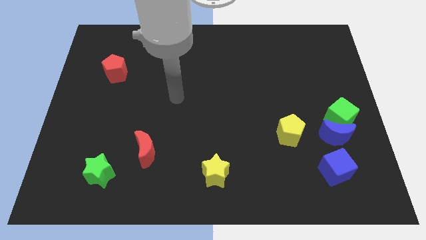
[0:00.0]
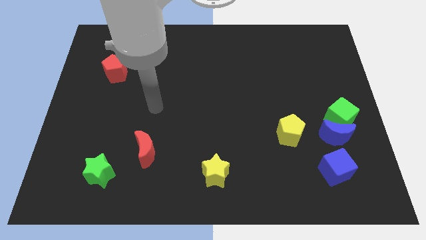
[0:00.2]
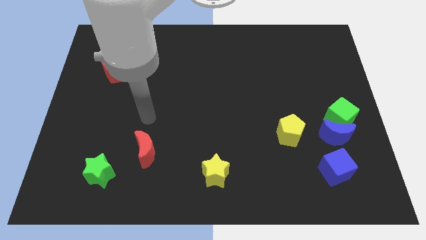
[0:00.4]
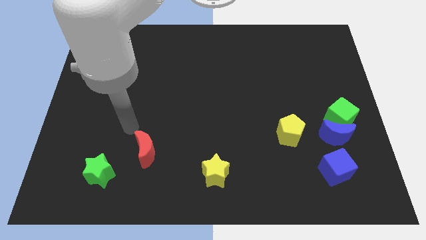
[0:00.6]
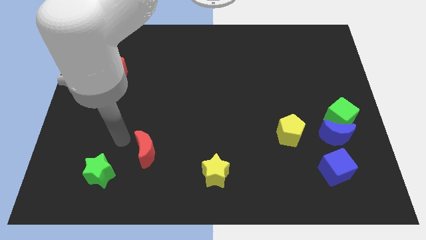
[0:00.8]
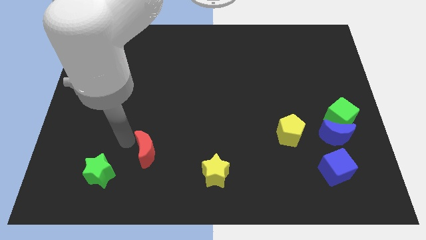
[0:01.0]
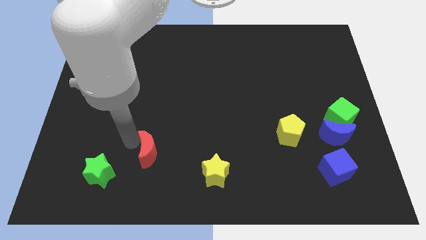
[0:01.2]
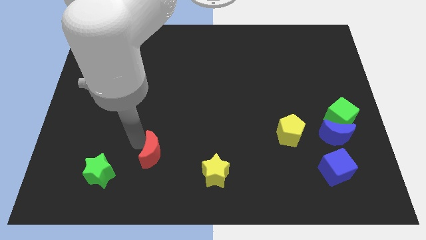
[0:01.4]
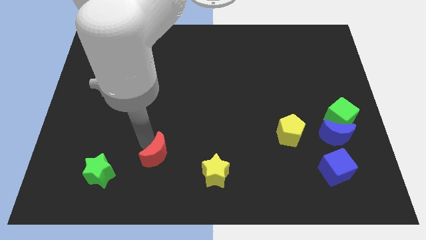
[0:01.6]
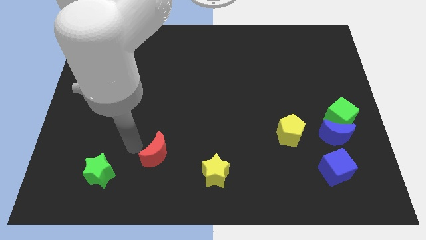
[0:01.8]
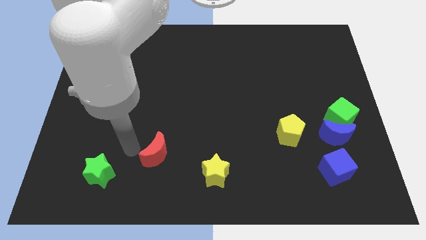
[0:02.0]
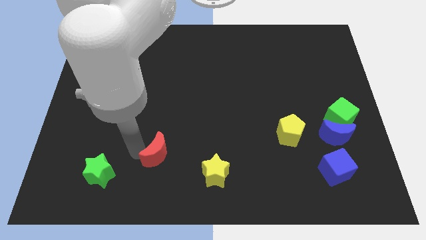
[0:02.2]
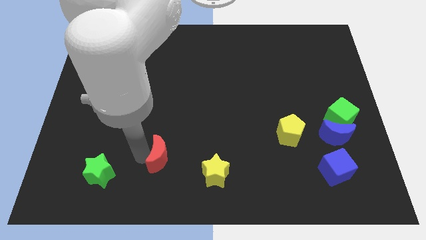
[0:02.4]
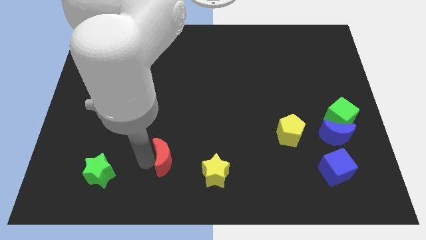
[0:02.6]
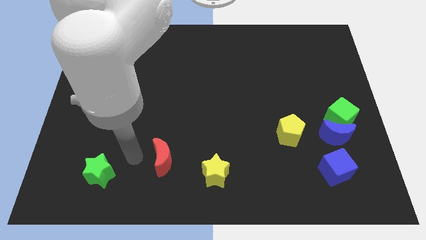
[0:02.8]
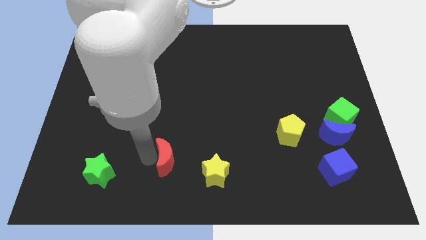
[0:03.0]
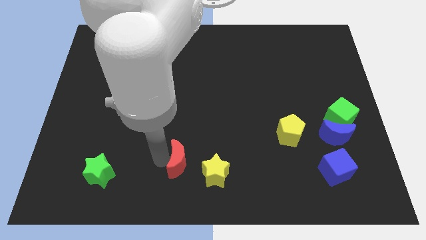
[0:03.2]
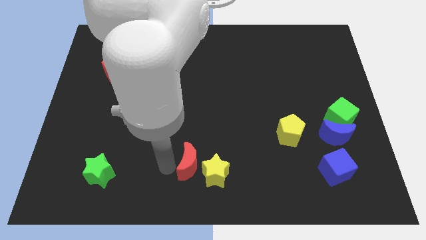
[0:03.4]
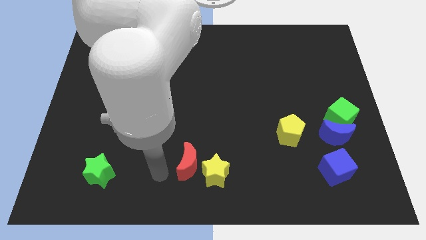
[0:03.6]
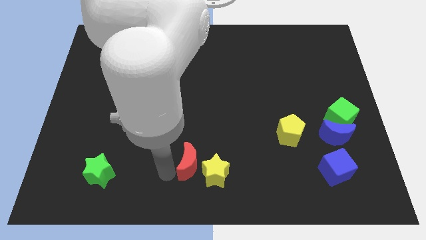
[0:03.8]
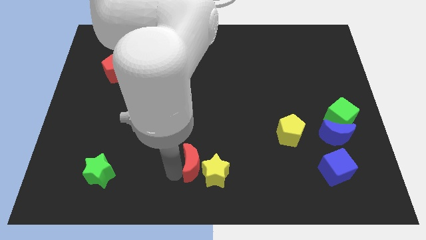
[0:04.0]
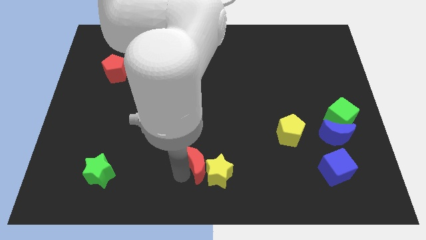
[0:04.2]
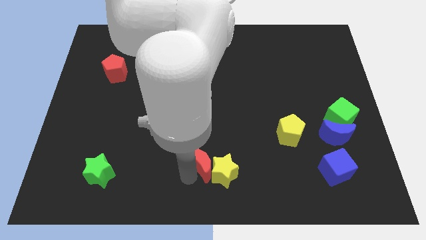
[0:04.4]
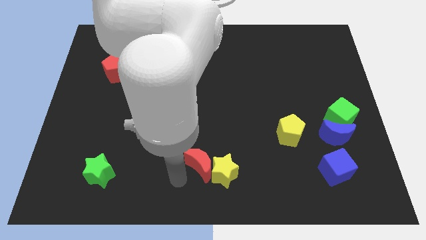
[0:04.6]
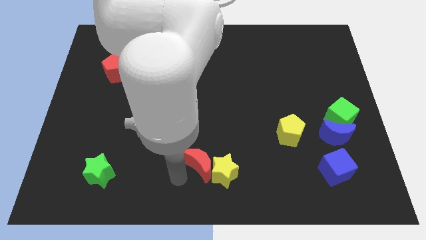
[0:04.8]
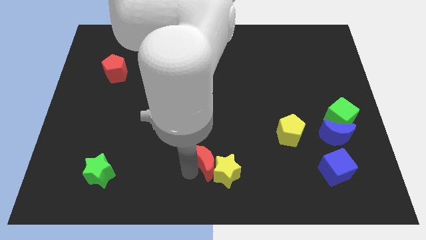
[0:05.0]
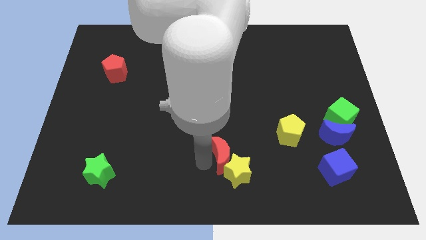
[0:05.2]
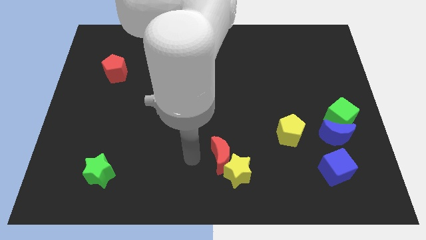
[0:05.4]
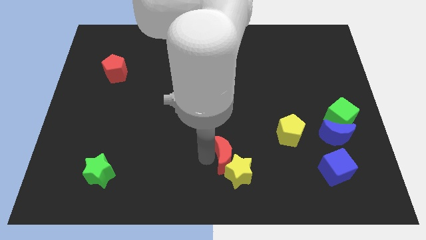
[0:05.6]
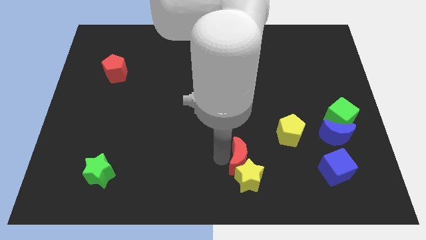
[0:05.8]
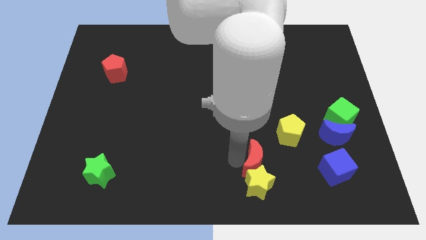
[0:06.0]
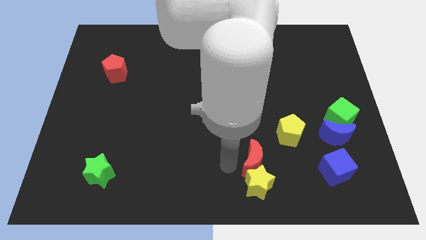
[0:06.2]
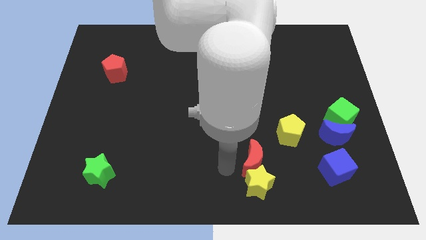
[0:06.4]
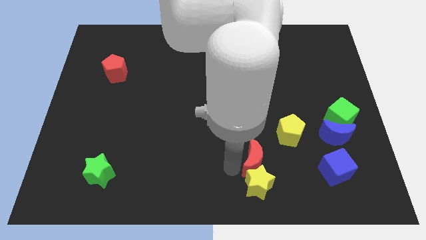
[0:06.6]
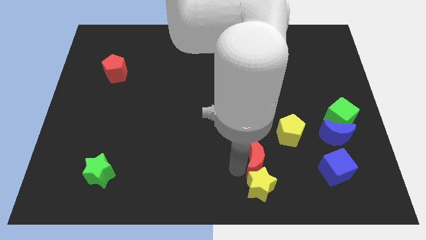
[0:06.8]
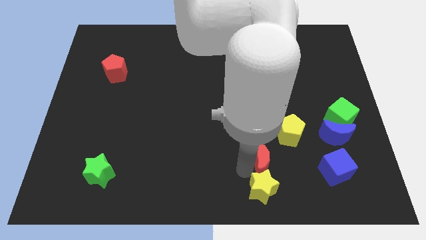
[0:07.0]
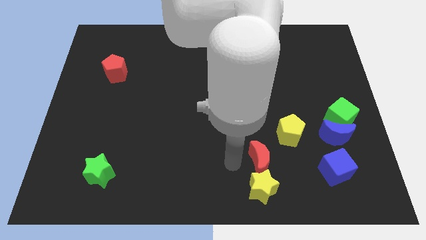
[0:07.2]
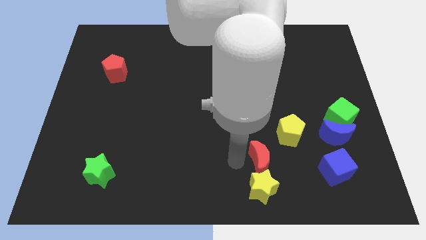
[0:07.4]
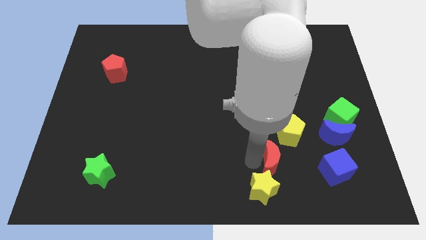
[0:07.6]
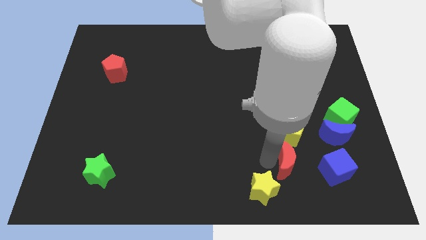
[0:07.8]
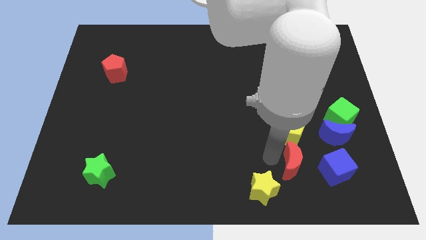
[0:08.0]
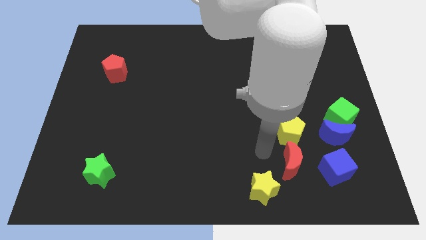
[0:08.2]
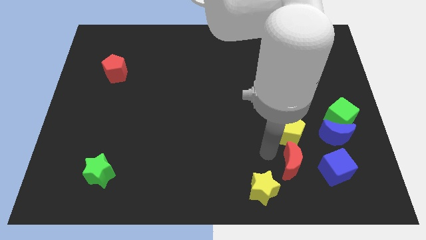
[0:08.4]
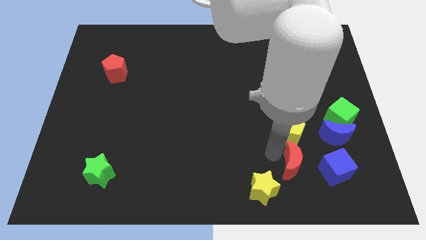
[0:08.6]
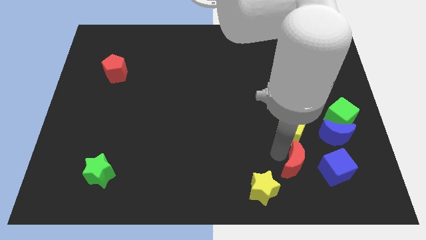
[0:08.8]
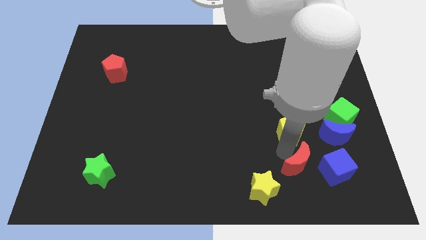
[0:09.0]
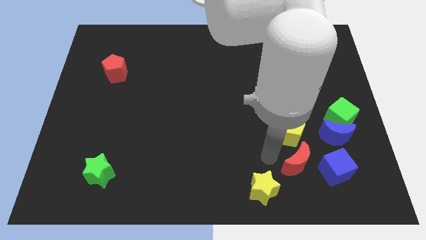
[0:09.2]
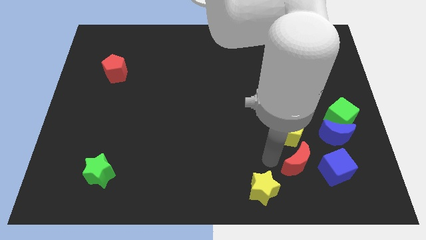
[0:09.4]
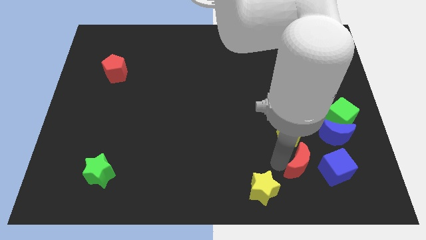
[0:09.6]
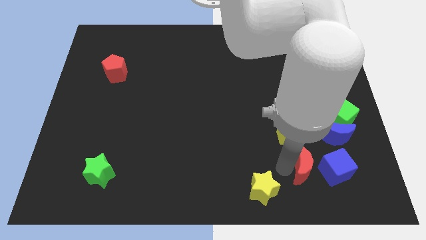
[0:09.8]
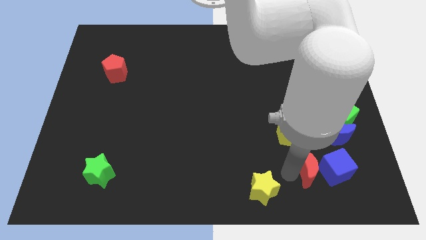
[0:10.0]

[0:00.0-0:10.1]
slide the red moon to the blue cube

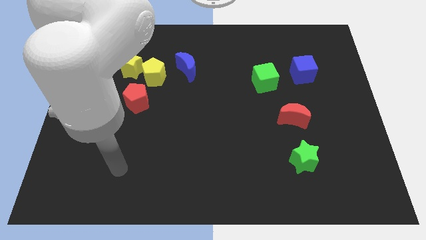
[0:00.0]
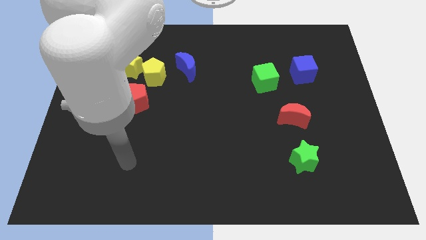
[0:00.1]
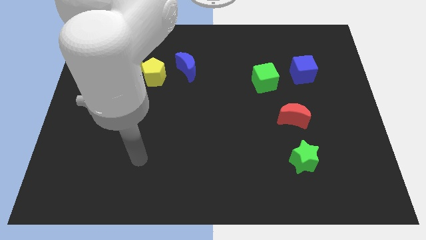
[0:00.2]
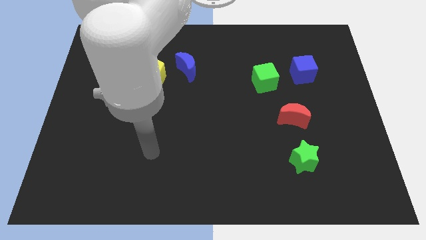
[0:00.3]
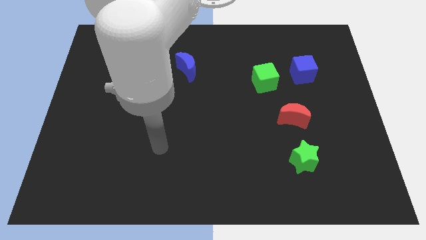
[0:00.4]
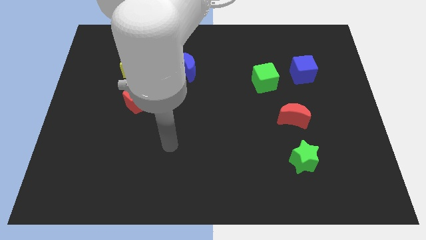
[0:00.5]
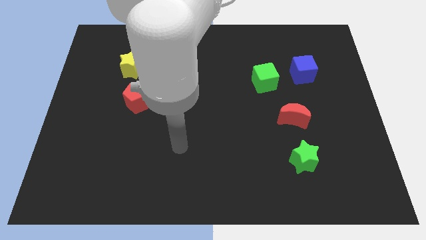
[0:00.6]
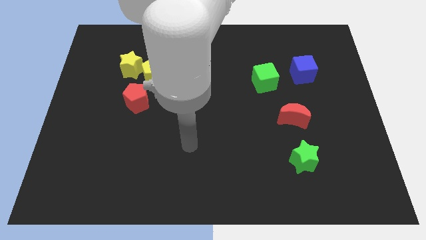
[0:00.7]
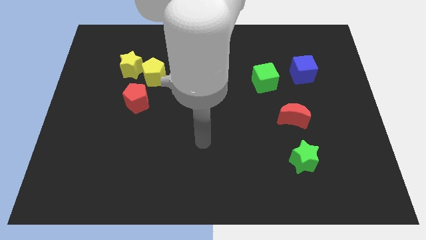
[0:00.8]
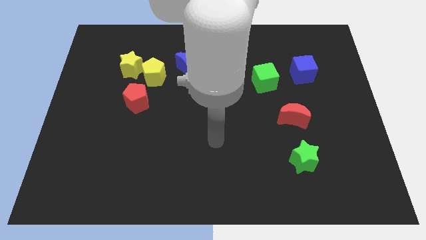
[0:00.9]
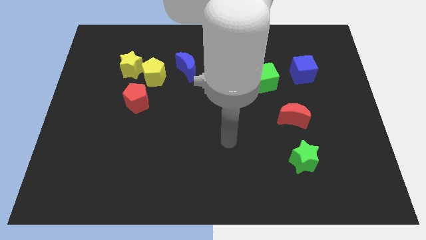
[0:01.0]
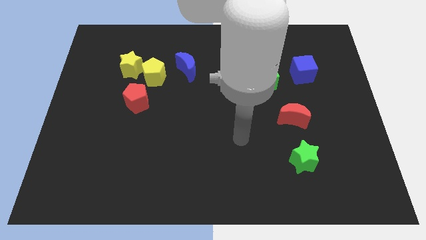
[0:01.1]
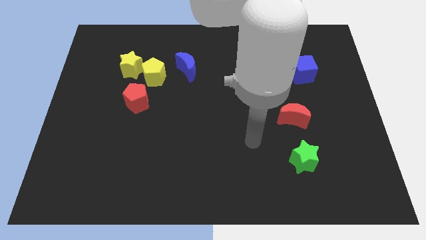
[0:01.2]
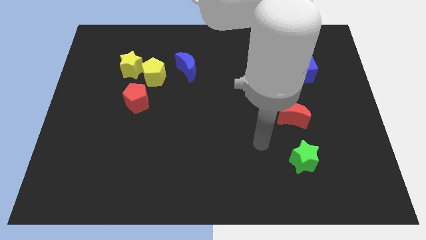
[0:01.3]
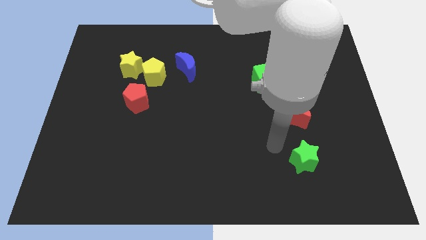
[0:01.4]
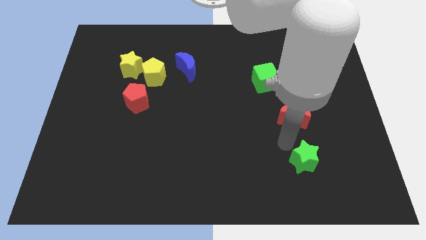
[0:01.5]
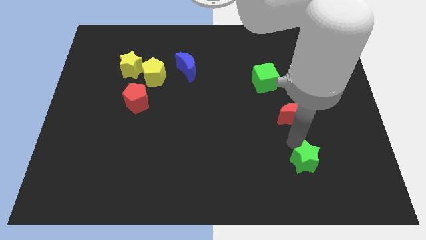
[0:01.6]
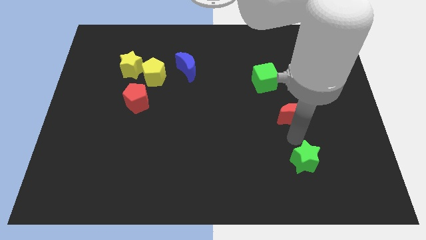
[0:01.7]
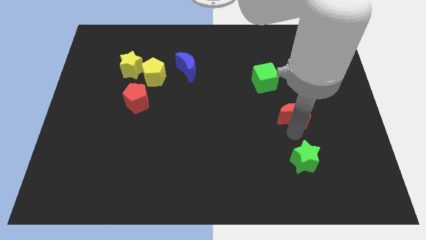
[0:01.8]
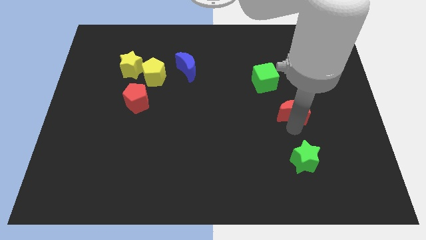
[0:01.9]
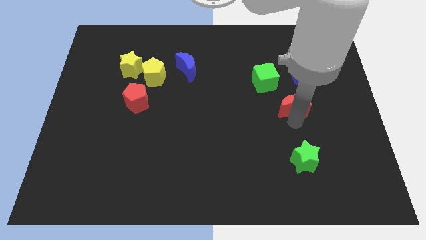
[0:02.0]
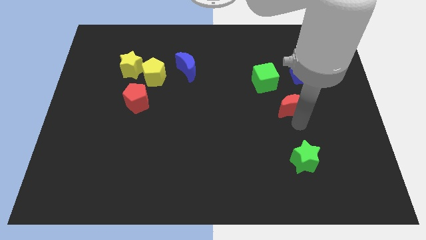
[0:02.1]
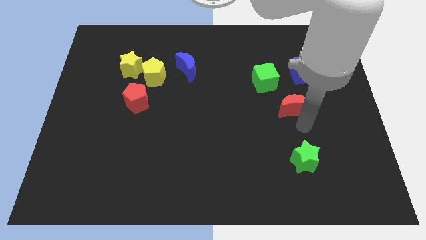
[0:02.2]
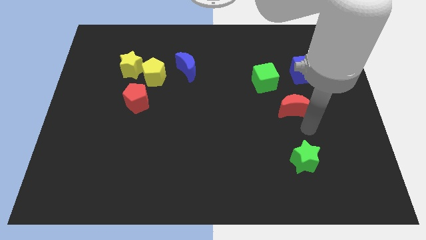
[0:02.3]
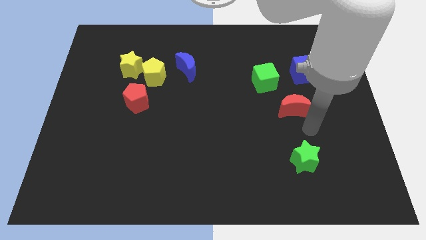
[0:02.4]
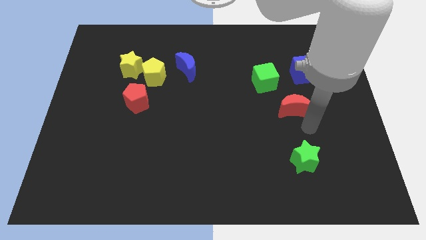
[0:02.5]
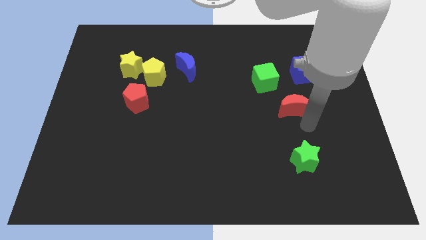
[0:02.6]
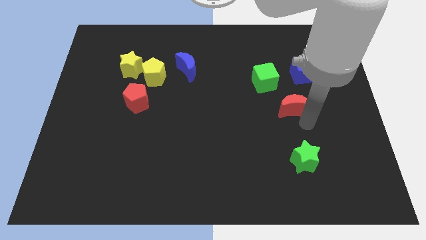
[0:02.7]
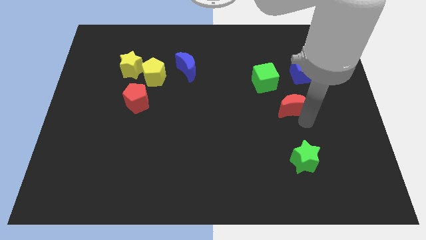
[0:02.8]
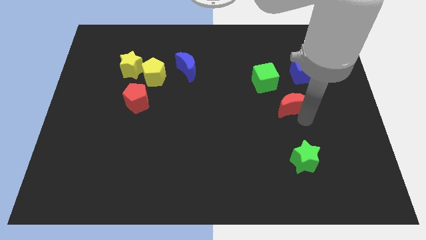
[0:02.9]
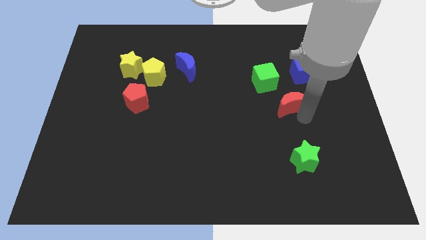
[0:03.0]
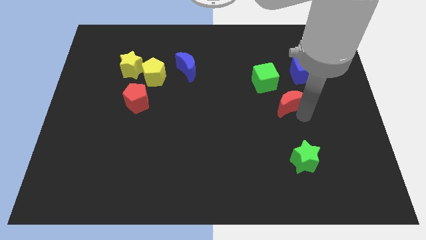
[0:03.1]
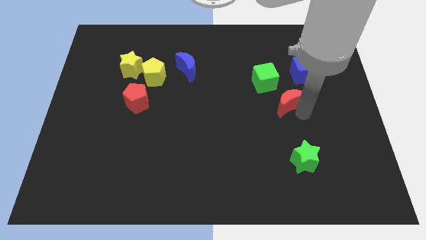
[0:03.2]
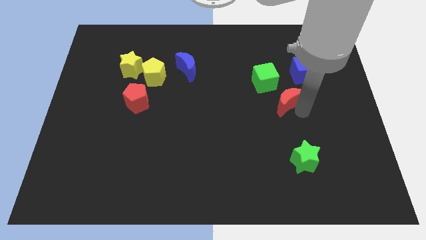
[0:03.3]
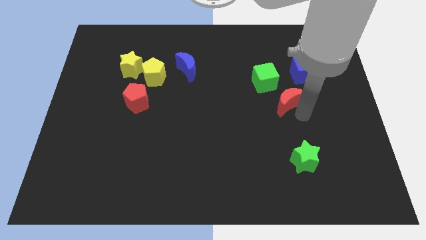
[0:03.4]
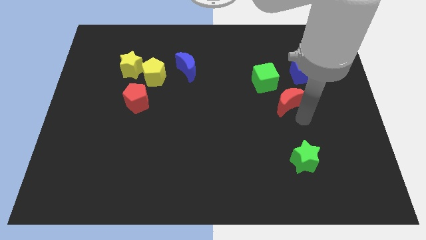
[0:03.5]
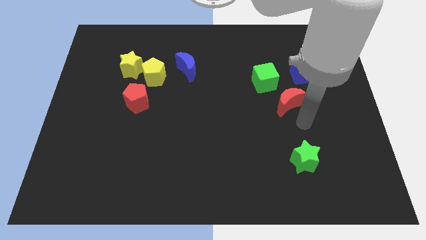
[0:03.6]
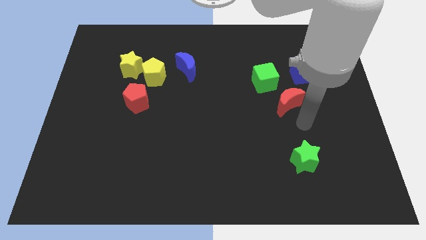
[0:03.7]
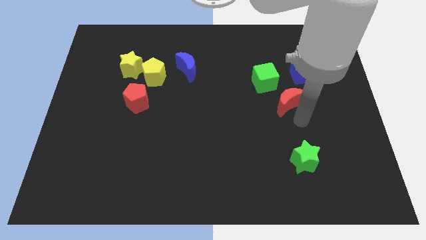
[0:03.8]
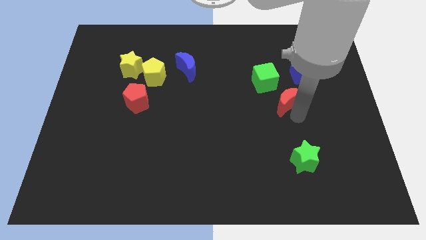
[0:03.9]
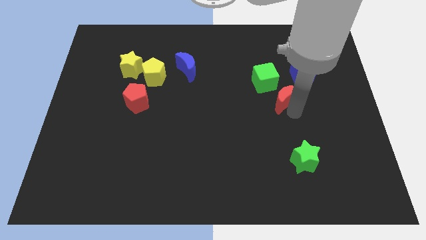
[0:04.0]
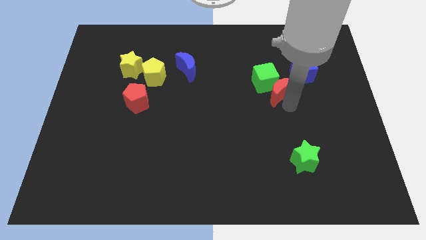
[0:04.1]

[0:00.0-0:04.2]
put the red moon to the green cube
